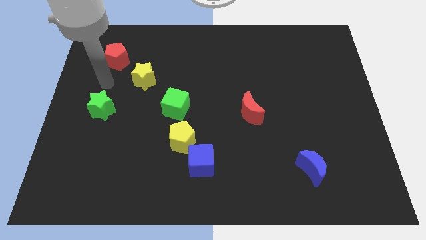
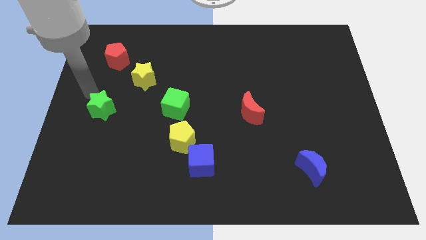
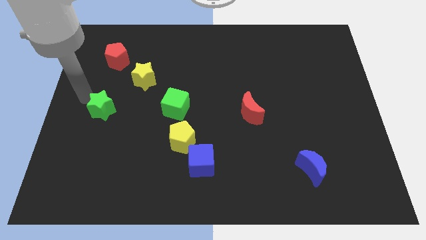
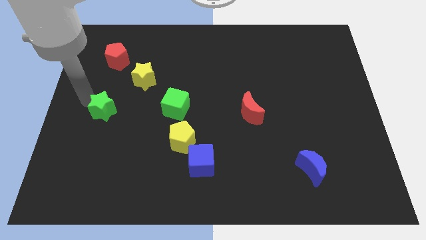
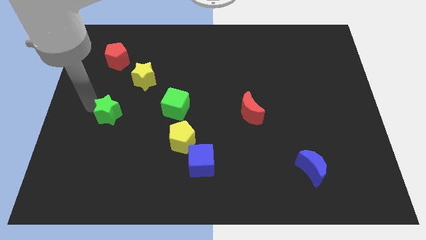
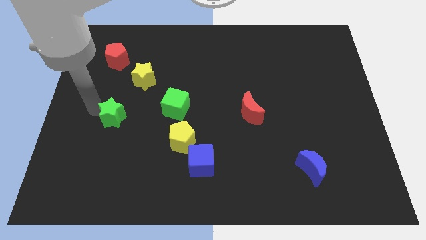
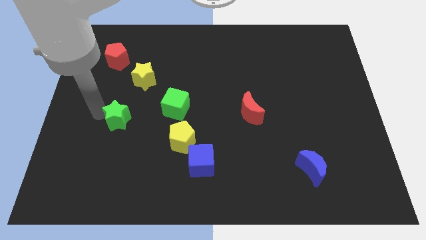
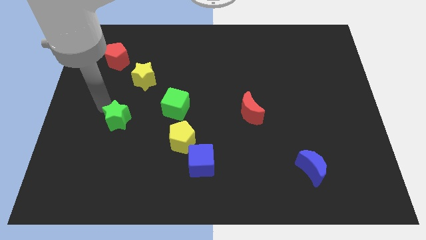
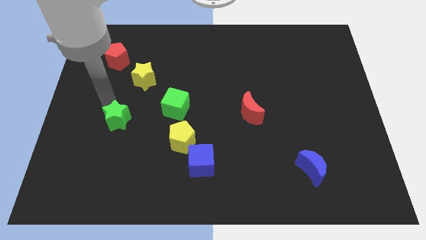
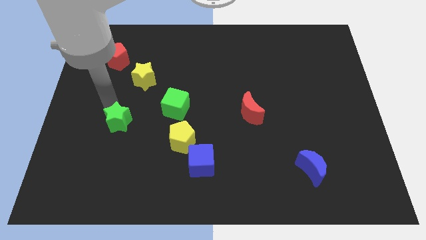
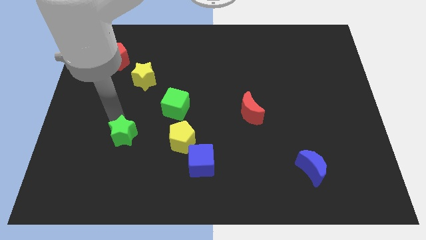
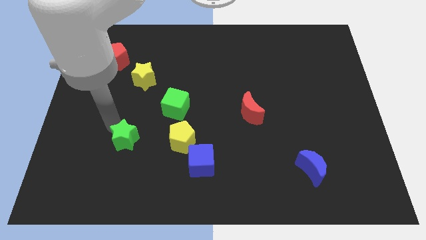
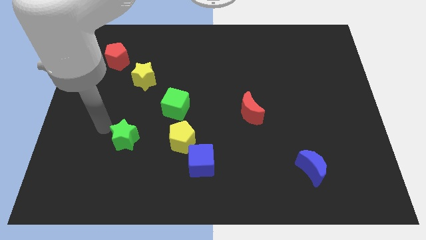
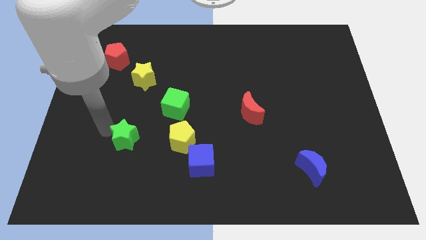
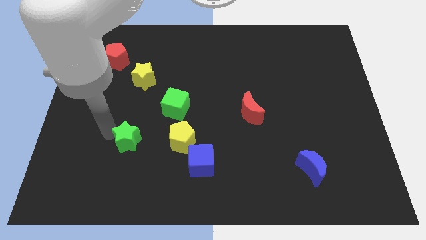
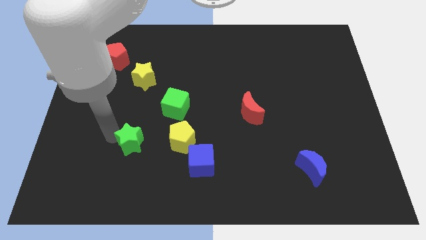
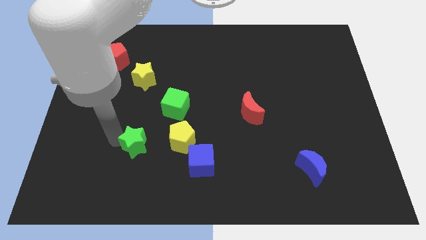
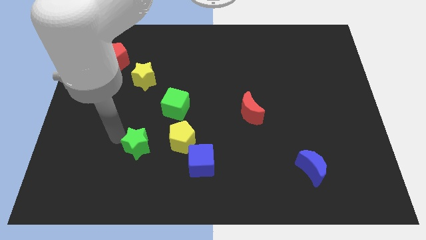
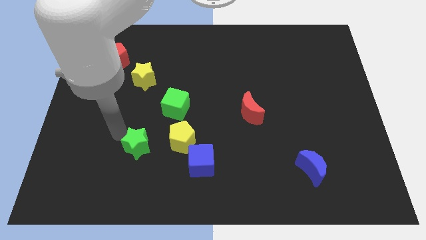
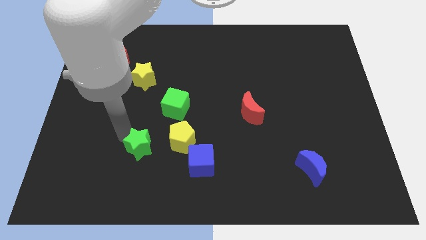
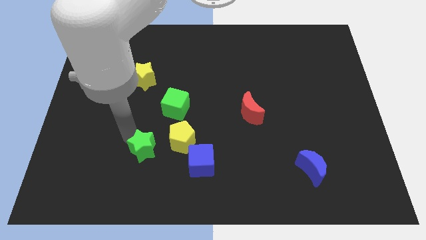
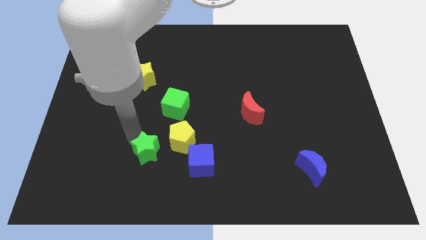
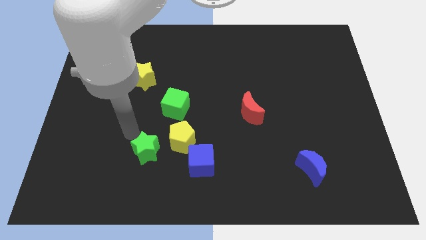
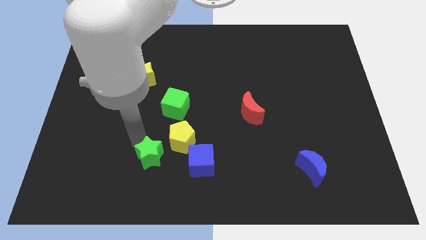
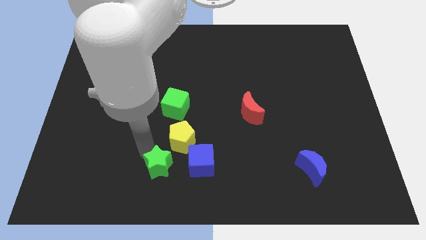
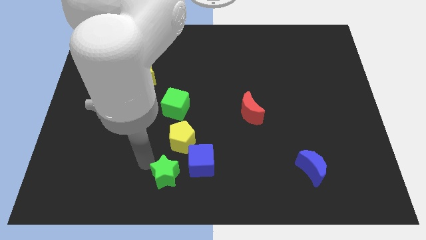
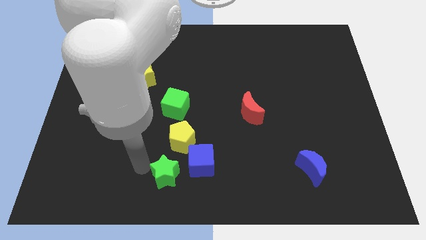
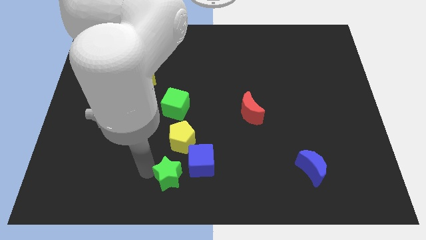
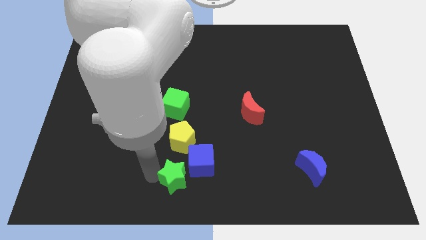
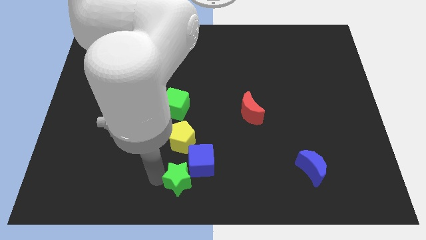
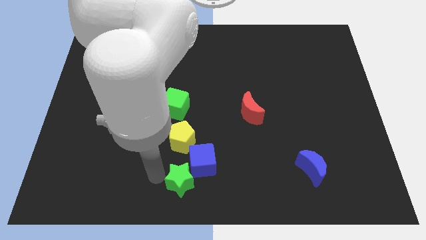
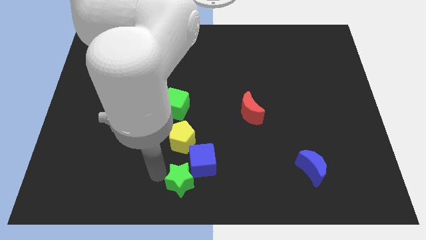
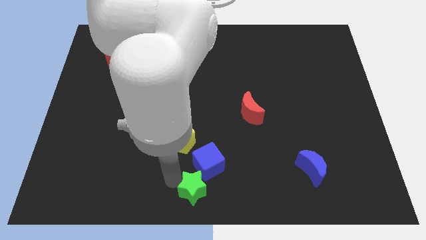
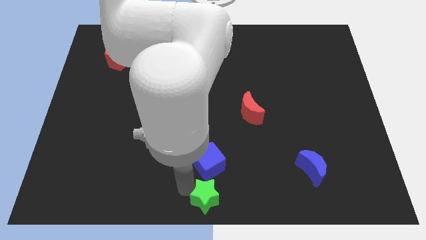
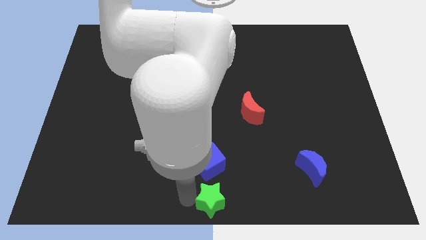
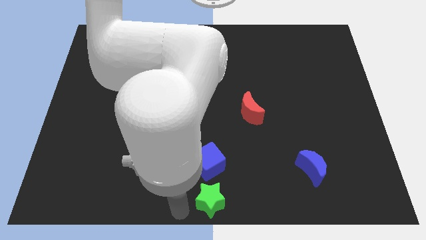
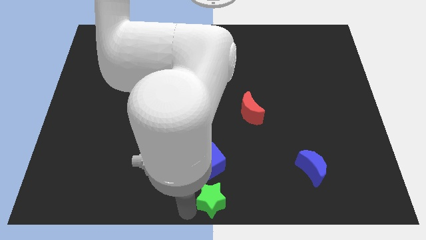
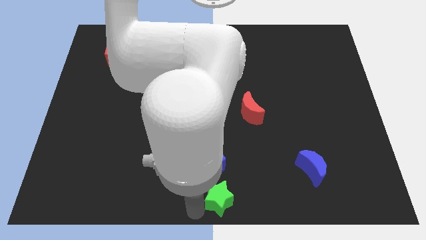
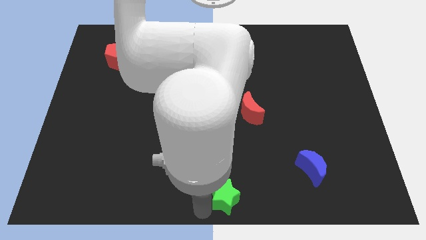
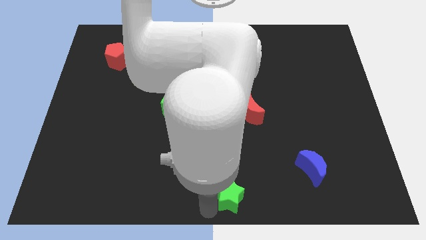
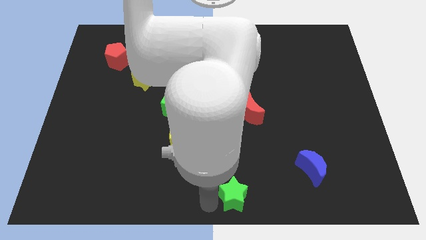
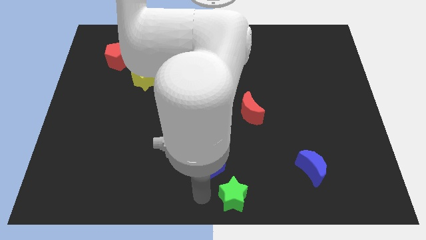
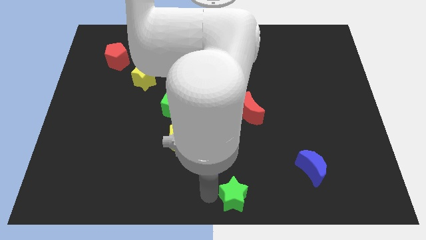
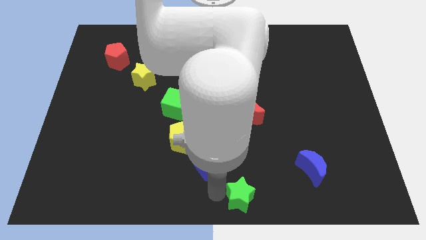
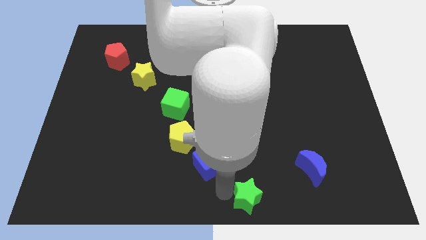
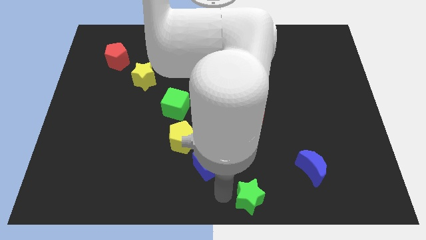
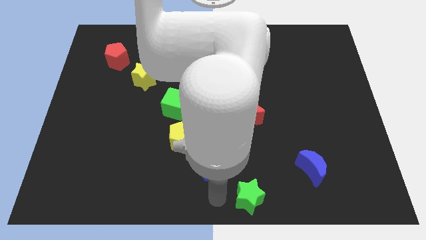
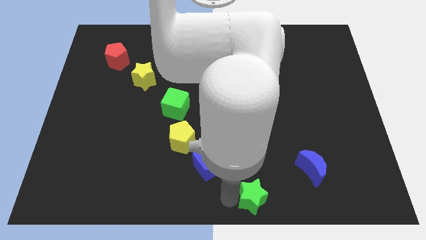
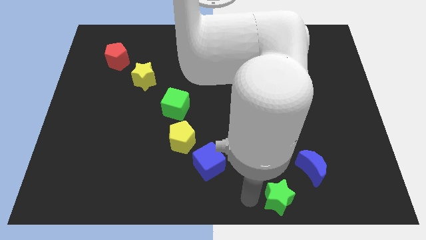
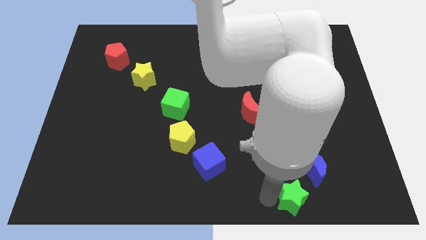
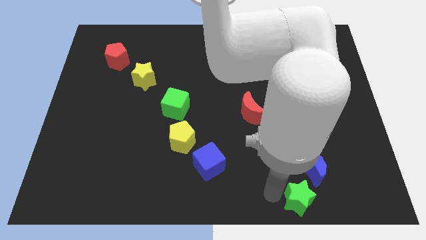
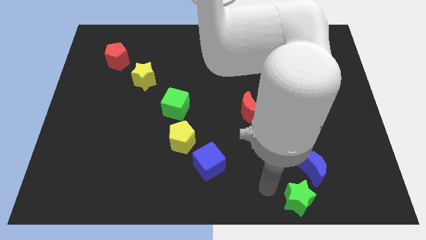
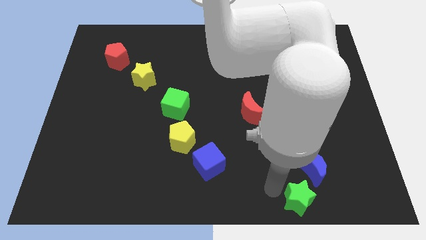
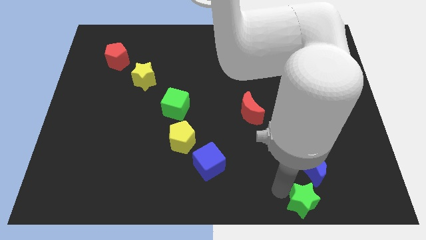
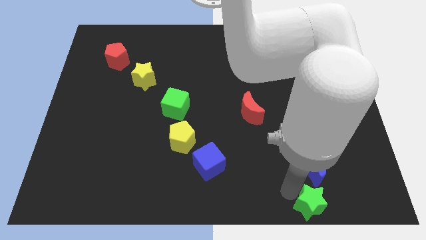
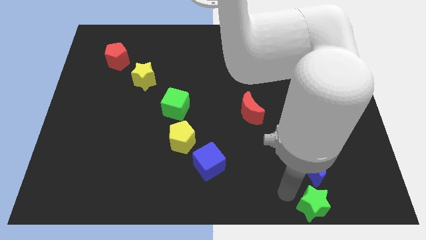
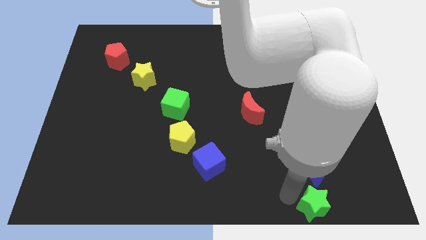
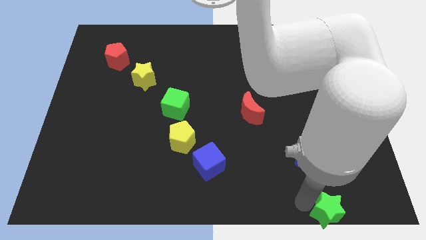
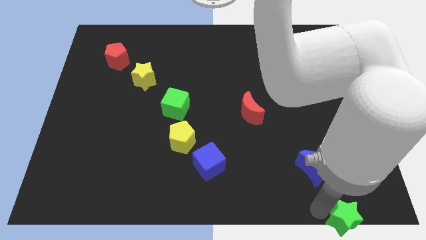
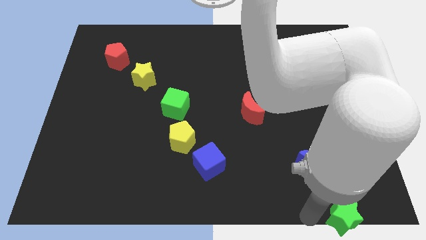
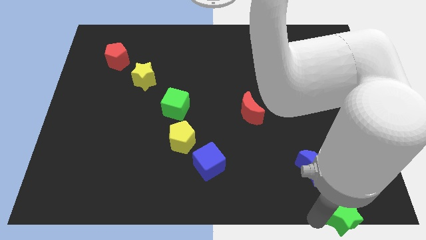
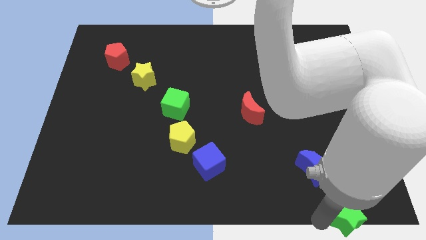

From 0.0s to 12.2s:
slide the green star to the bottom right of the board

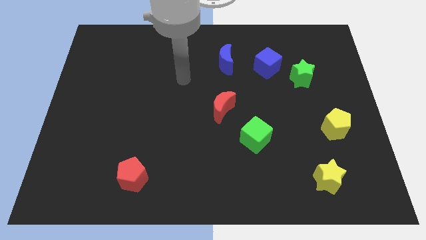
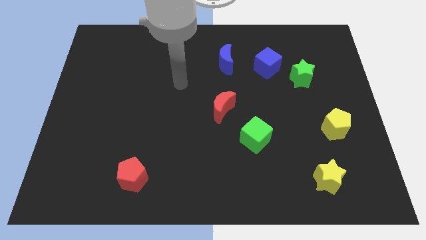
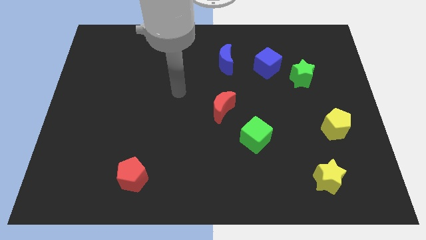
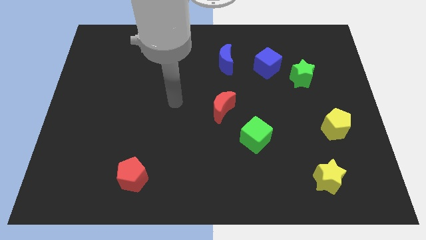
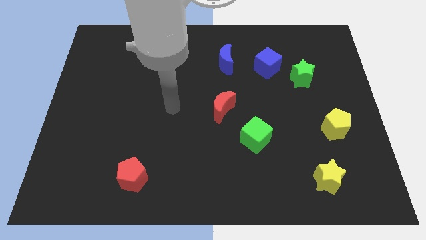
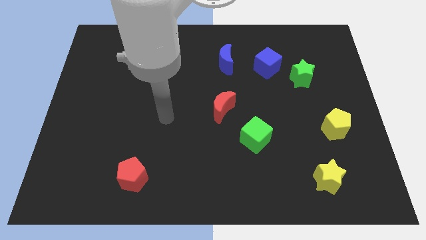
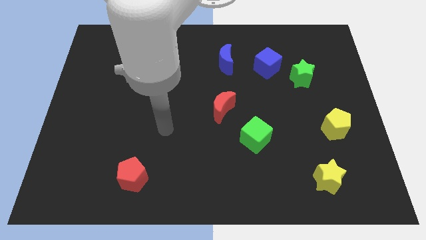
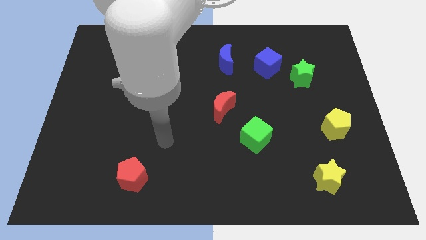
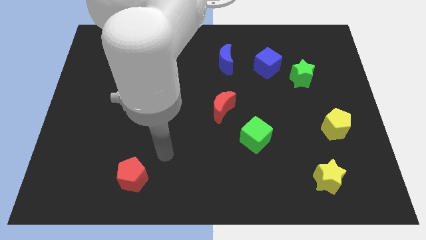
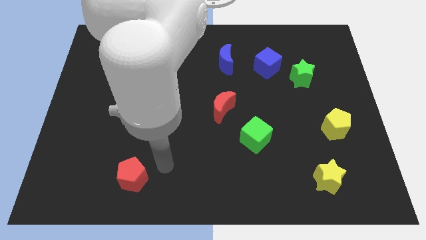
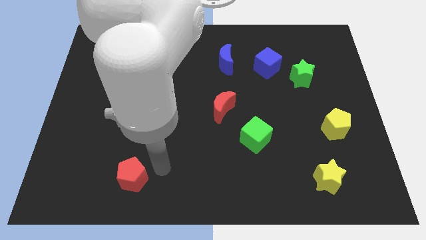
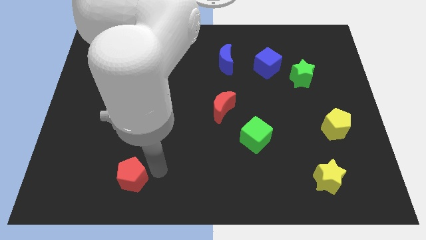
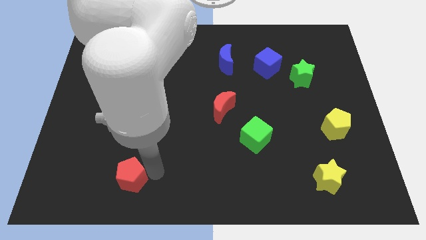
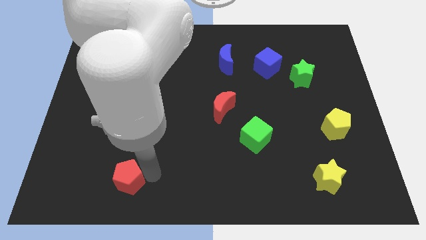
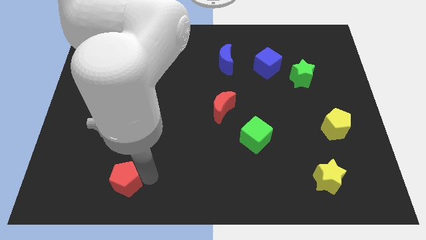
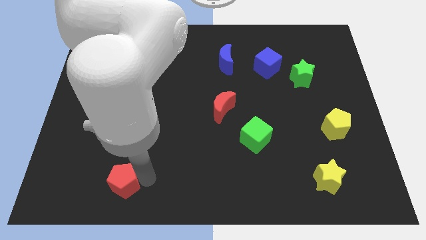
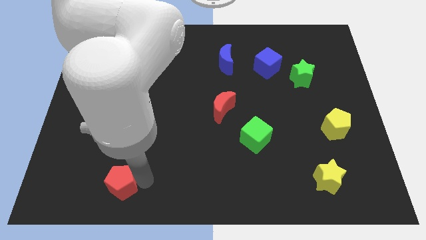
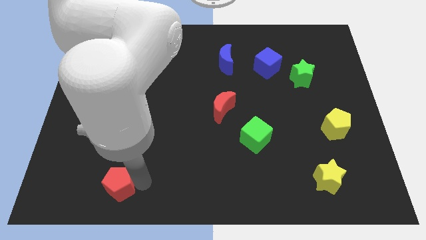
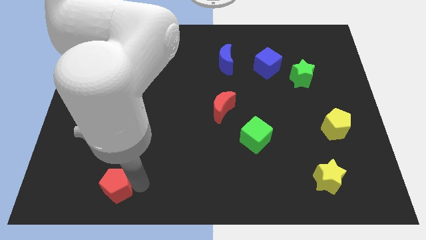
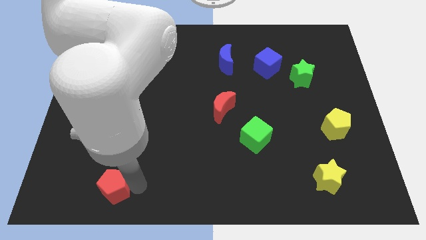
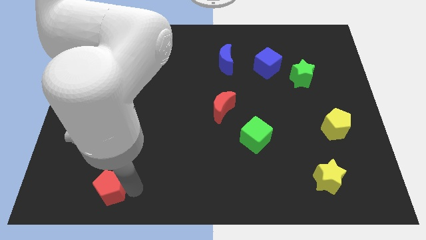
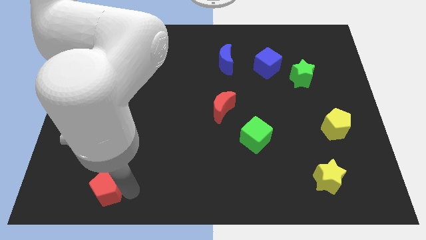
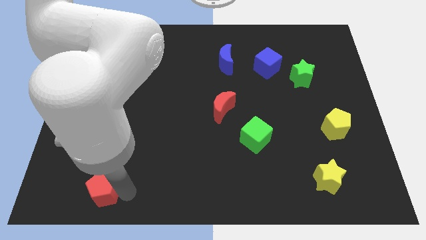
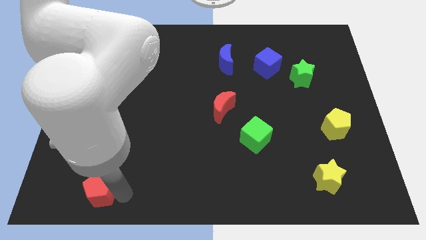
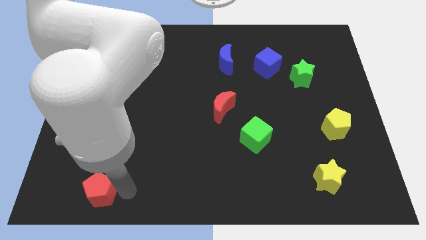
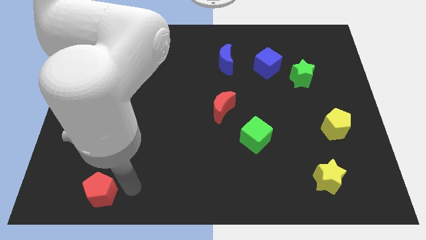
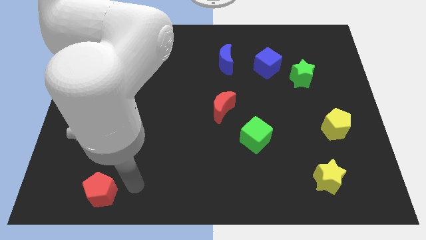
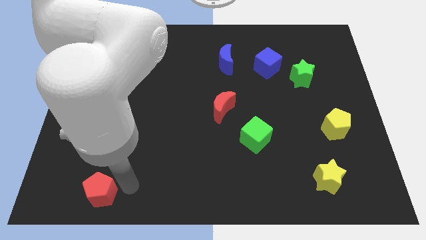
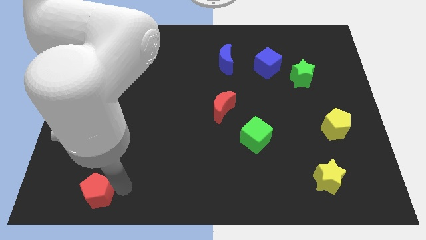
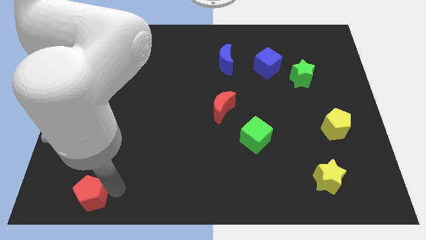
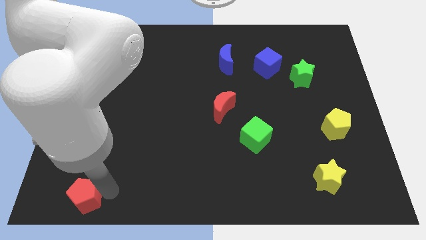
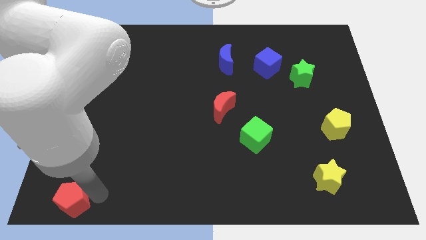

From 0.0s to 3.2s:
push the red pentagon to the bottom left corner
